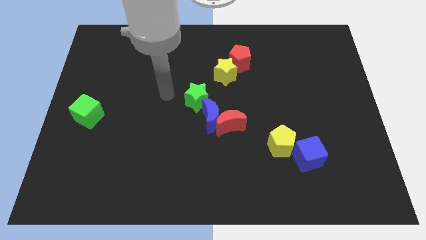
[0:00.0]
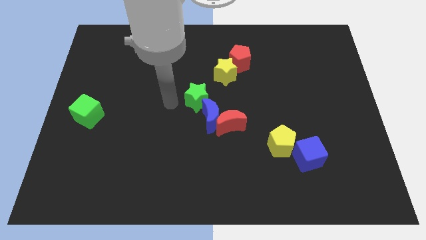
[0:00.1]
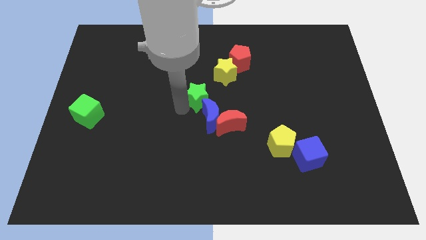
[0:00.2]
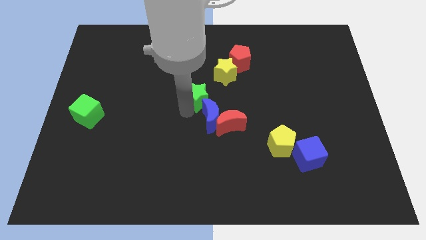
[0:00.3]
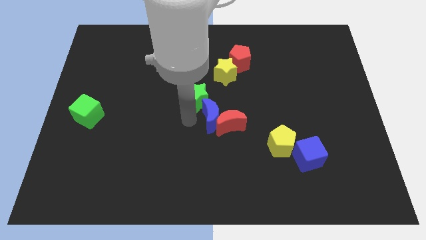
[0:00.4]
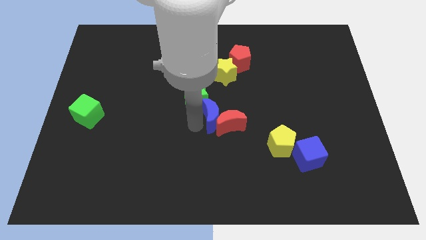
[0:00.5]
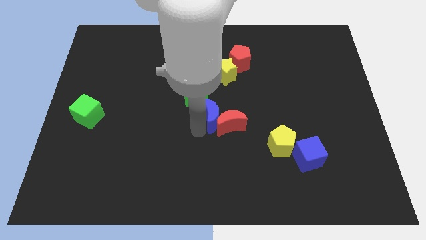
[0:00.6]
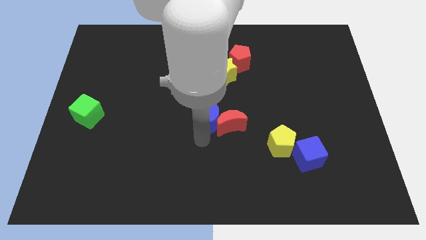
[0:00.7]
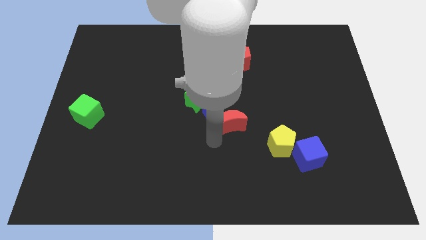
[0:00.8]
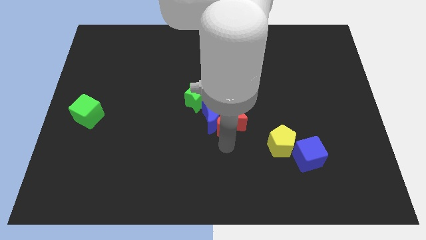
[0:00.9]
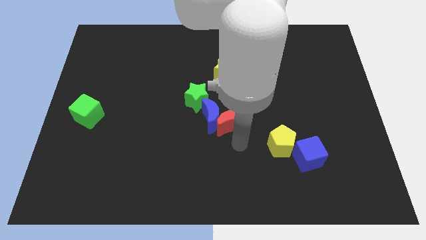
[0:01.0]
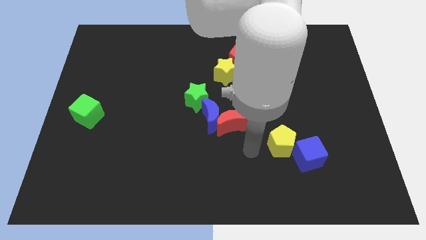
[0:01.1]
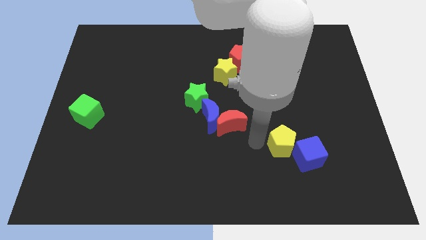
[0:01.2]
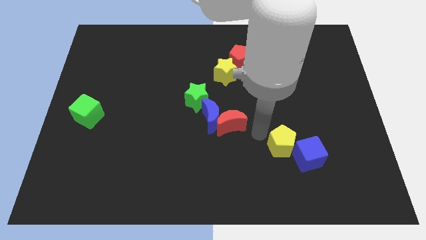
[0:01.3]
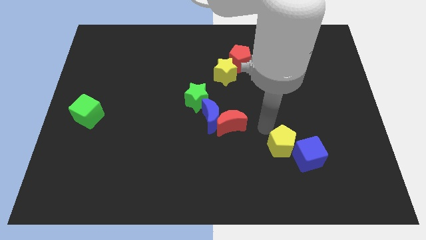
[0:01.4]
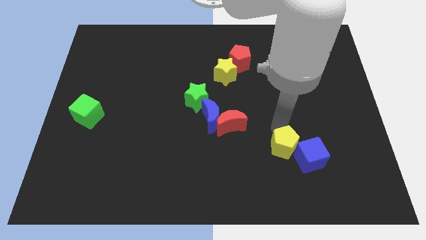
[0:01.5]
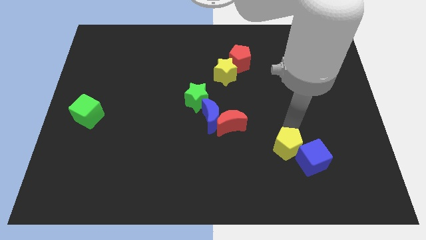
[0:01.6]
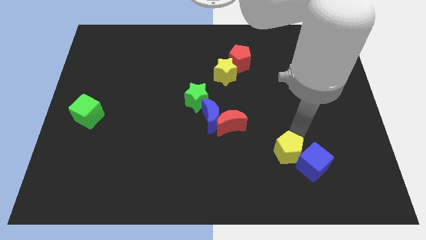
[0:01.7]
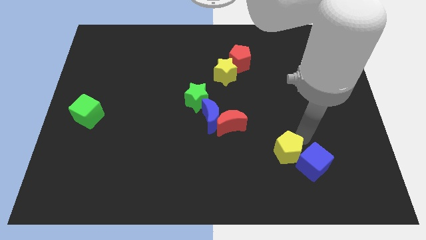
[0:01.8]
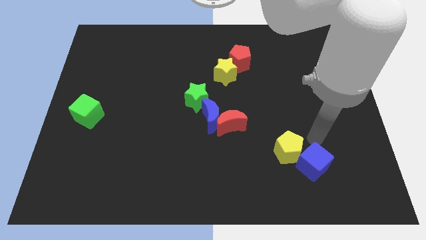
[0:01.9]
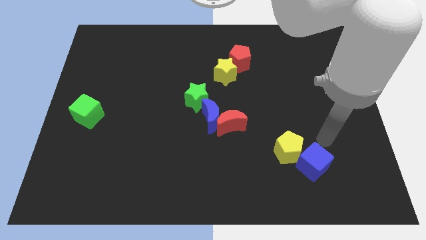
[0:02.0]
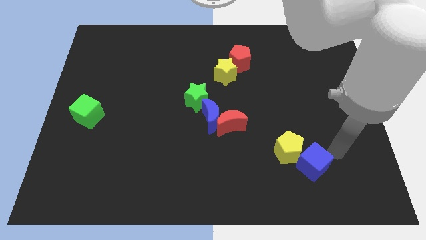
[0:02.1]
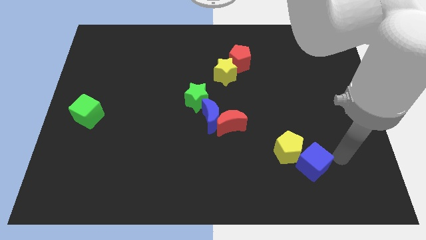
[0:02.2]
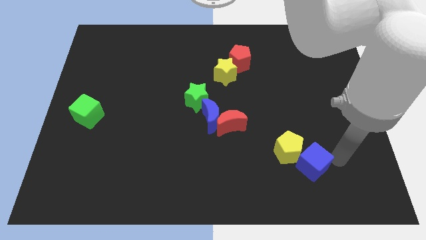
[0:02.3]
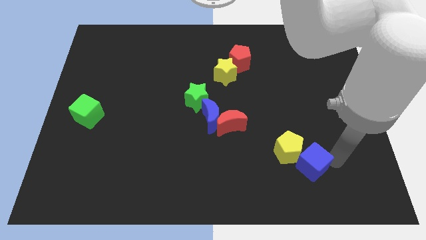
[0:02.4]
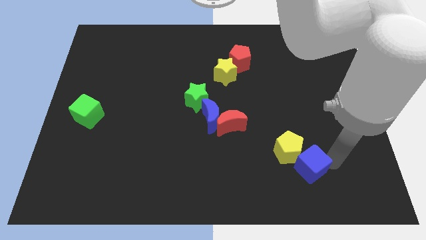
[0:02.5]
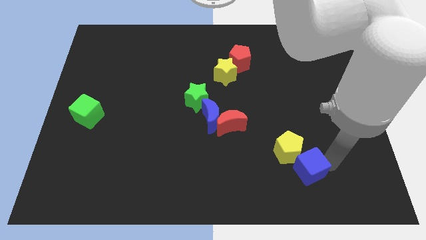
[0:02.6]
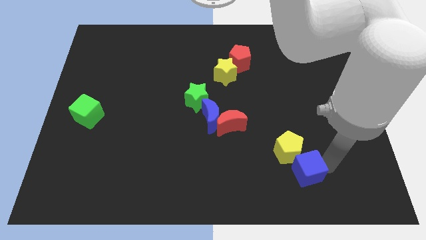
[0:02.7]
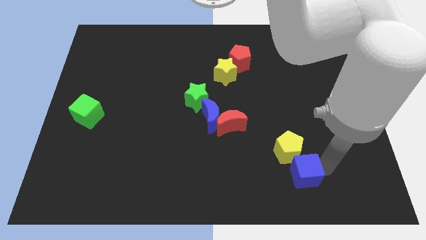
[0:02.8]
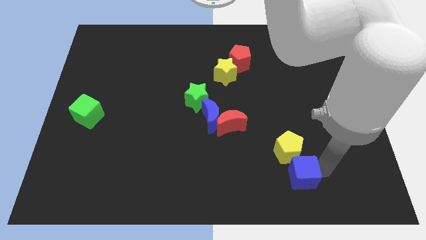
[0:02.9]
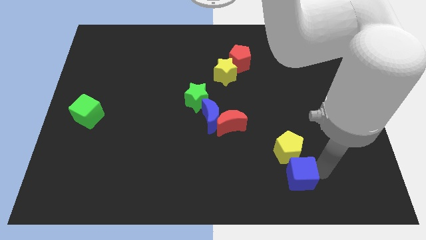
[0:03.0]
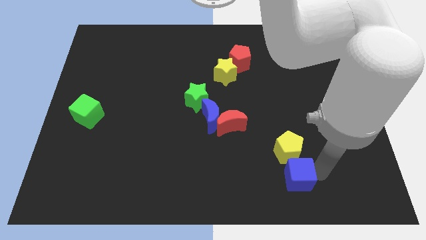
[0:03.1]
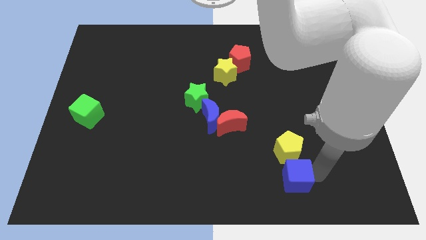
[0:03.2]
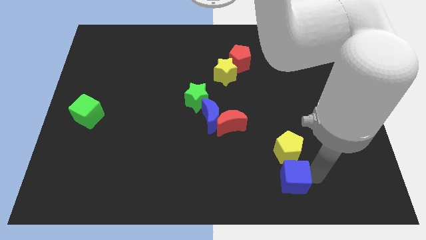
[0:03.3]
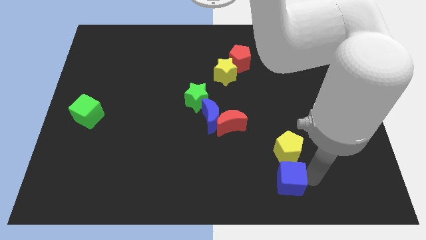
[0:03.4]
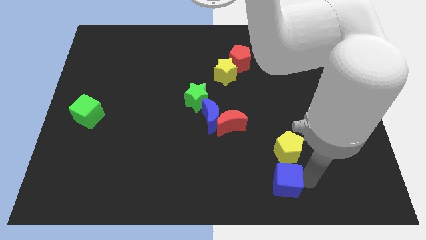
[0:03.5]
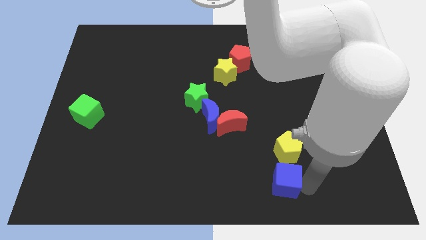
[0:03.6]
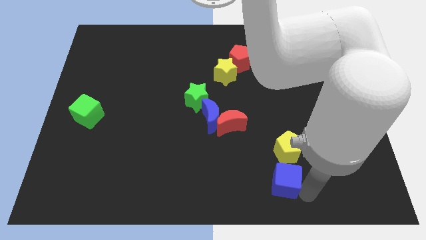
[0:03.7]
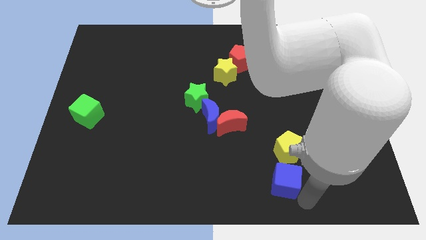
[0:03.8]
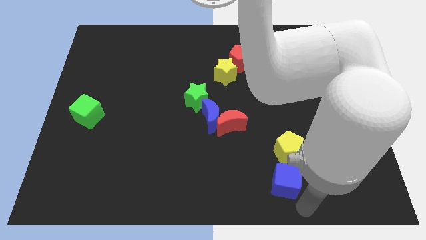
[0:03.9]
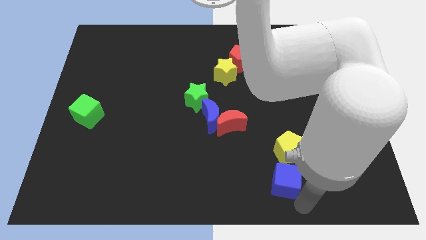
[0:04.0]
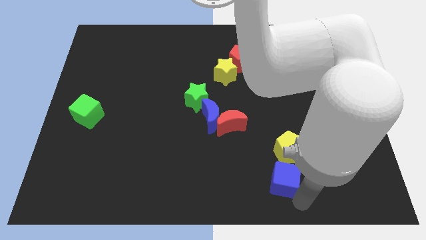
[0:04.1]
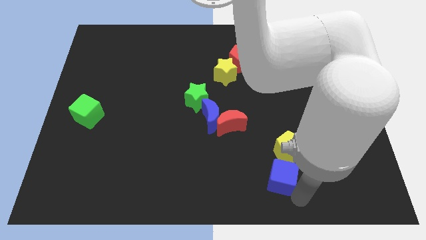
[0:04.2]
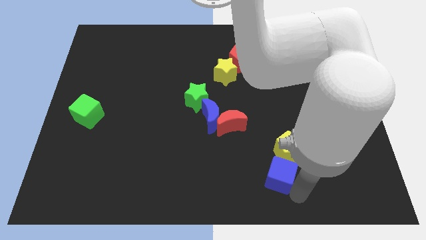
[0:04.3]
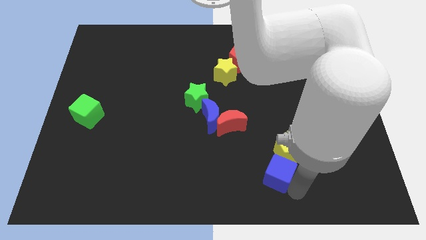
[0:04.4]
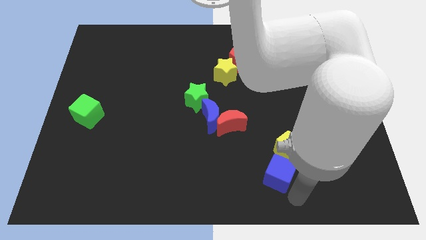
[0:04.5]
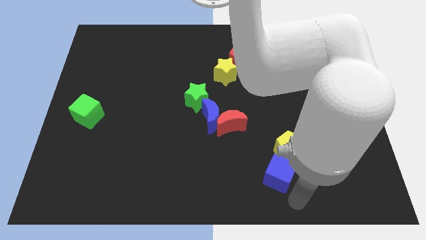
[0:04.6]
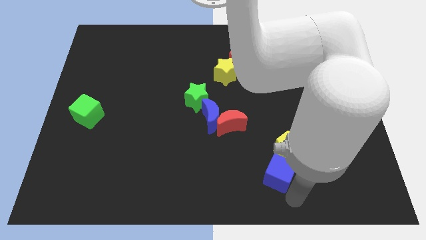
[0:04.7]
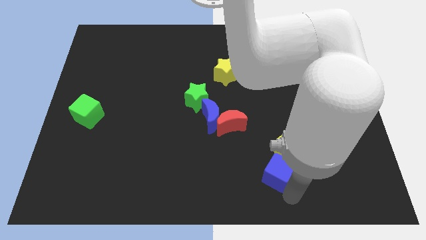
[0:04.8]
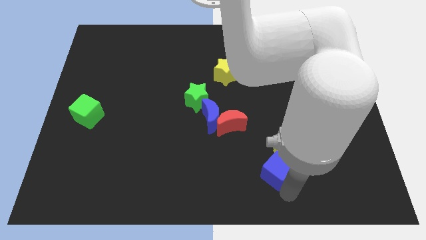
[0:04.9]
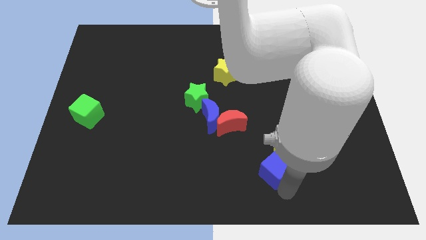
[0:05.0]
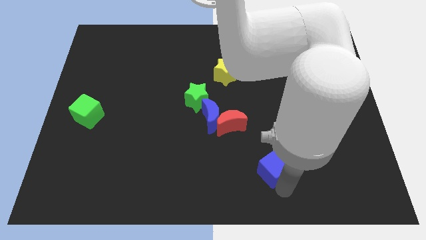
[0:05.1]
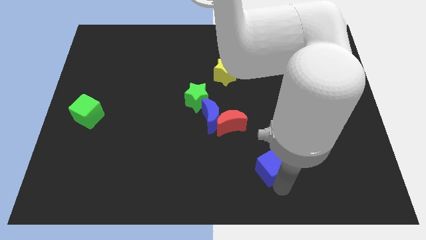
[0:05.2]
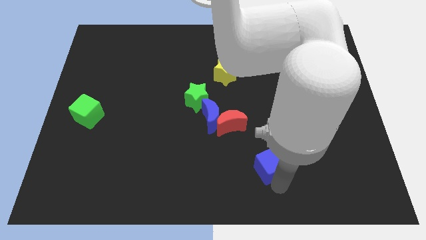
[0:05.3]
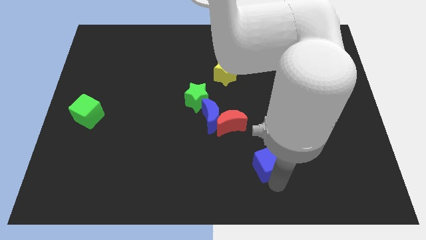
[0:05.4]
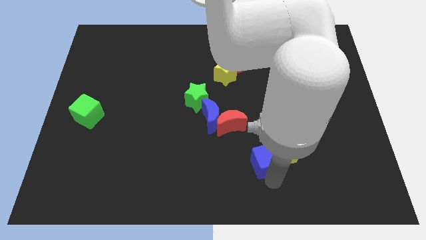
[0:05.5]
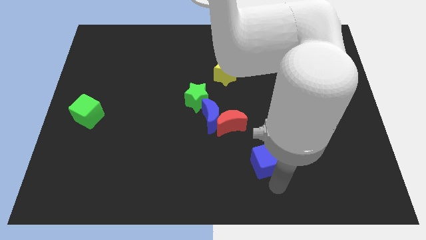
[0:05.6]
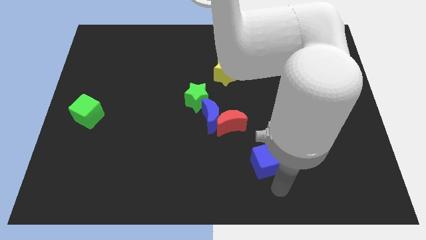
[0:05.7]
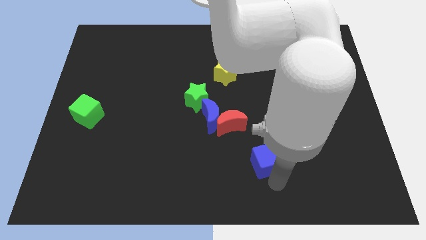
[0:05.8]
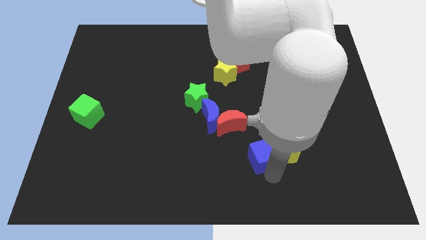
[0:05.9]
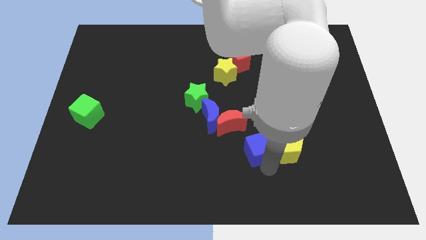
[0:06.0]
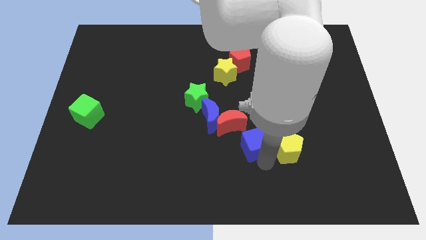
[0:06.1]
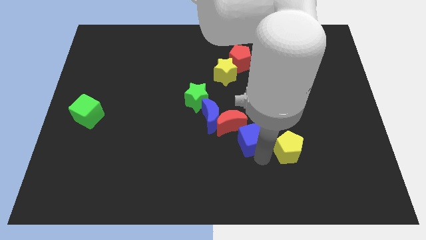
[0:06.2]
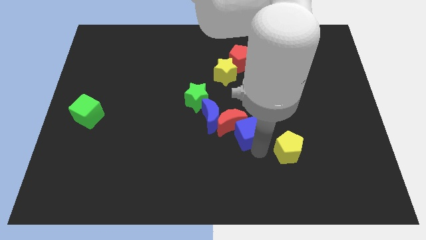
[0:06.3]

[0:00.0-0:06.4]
slide the blue cube close to the red moon

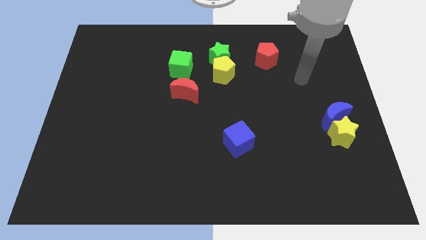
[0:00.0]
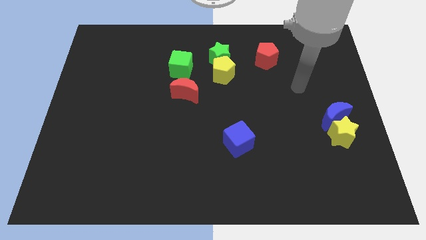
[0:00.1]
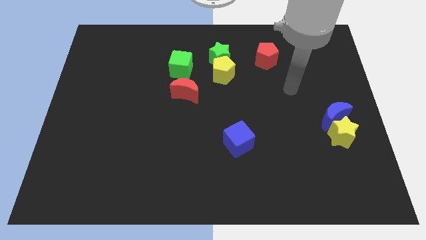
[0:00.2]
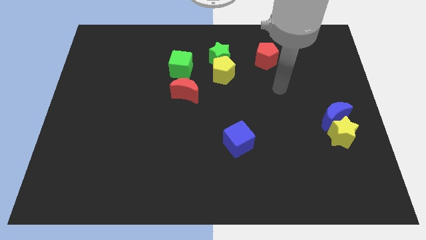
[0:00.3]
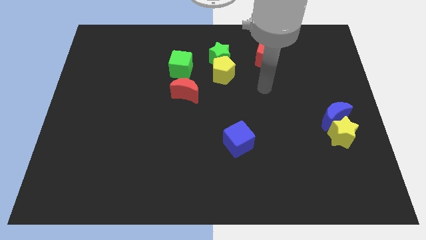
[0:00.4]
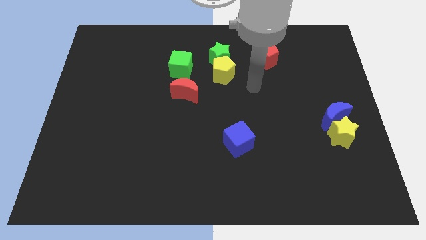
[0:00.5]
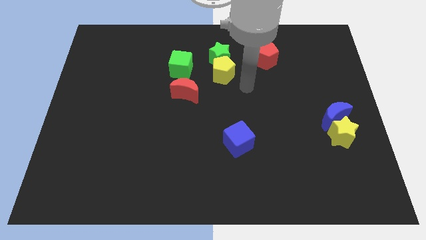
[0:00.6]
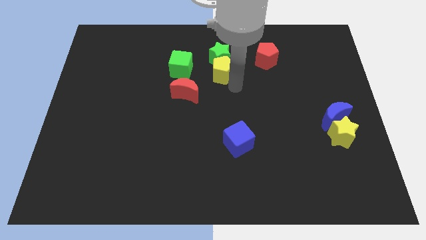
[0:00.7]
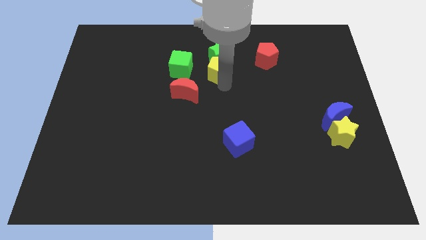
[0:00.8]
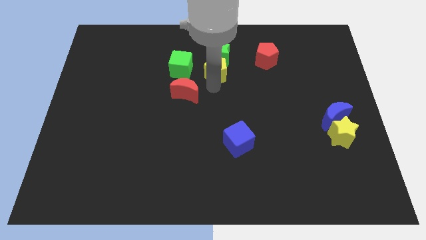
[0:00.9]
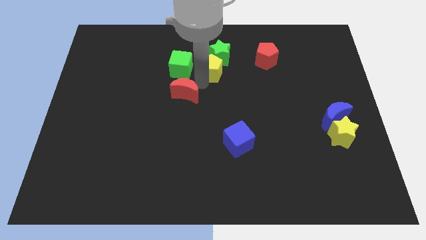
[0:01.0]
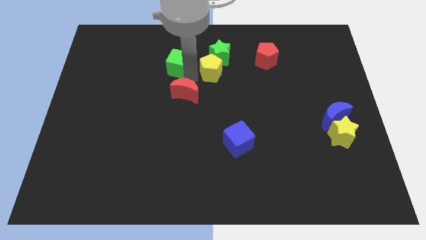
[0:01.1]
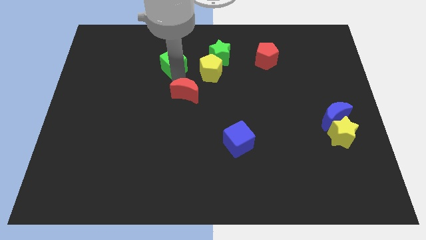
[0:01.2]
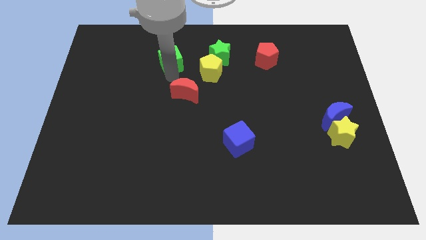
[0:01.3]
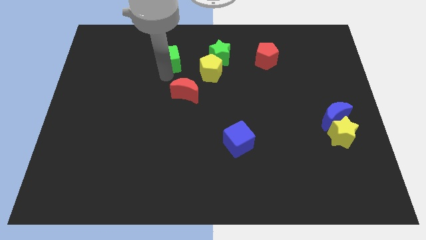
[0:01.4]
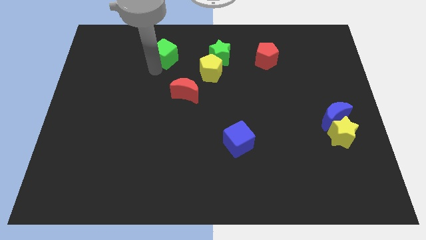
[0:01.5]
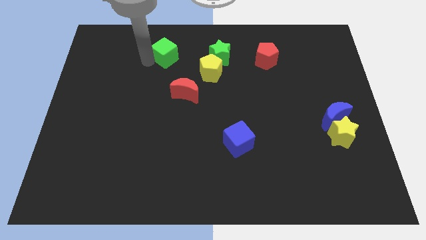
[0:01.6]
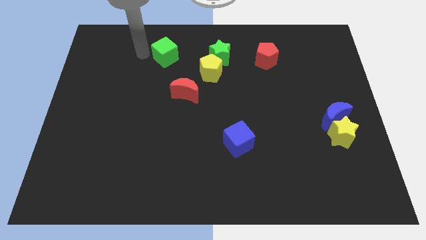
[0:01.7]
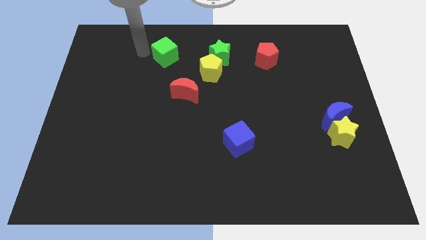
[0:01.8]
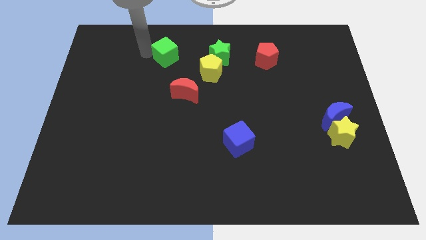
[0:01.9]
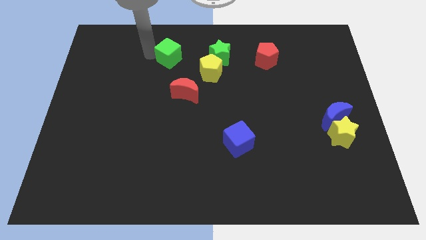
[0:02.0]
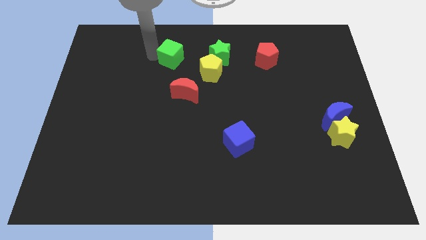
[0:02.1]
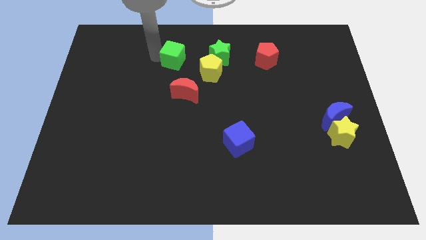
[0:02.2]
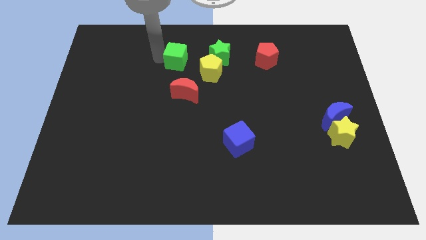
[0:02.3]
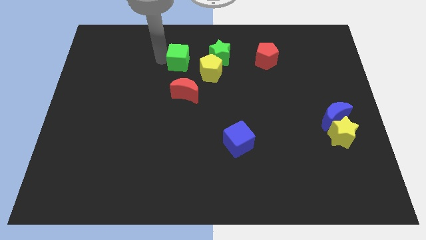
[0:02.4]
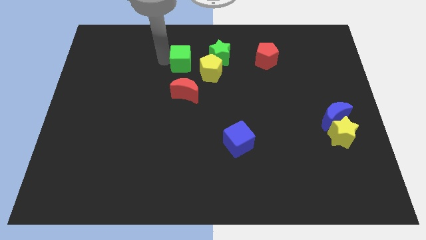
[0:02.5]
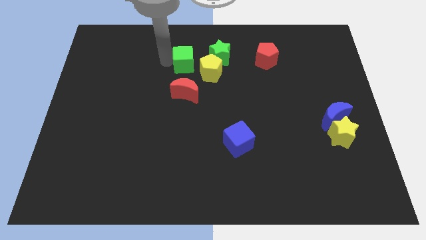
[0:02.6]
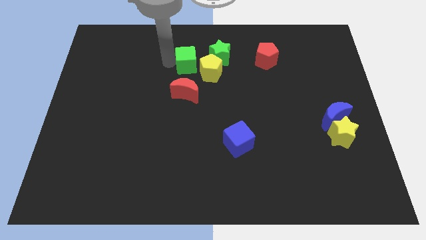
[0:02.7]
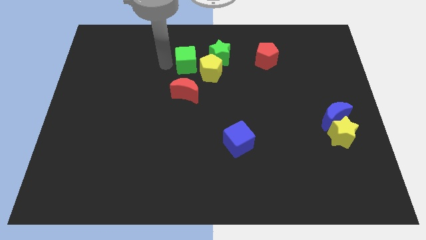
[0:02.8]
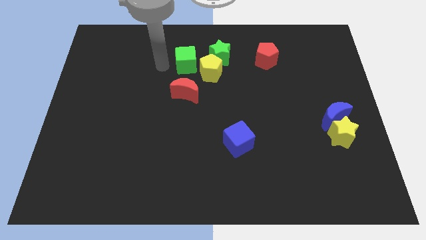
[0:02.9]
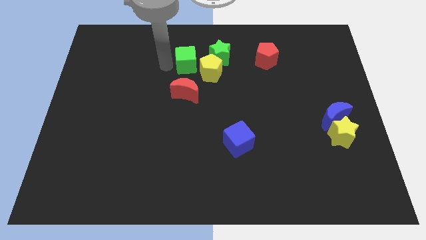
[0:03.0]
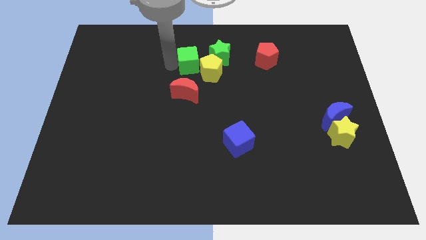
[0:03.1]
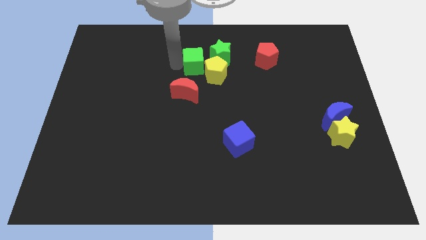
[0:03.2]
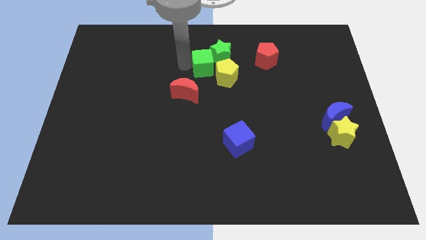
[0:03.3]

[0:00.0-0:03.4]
slide the green cube next to the green star
